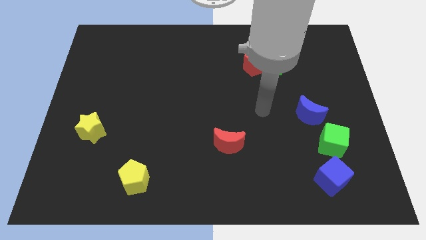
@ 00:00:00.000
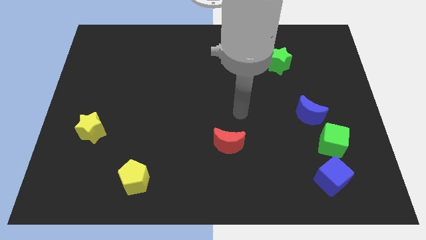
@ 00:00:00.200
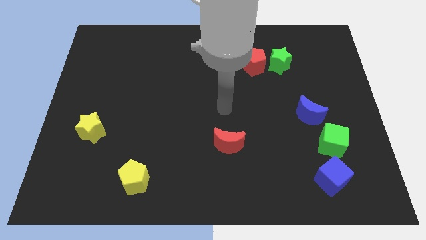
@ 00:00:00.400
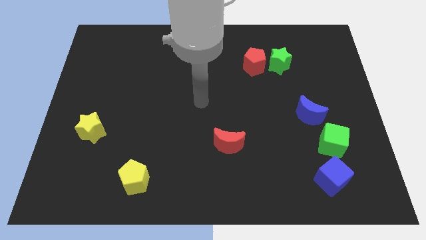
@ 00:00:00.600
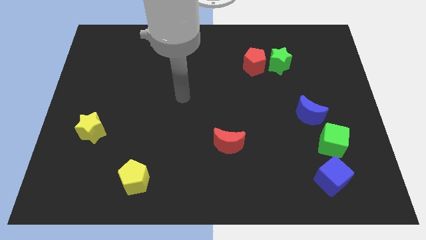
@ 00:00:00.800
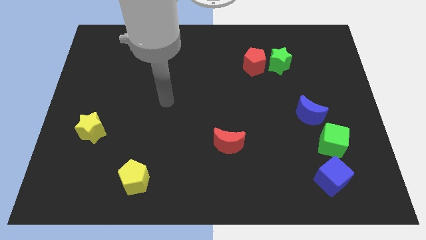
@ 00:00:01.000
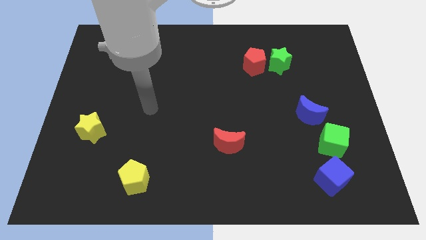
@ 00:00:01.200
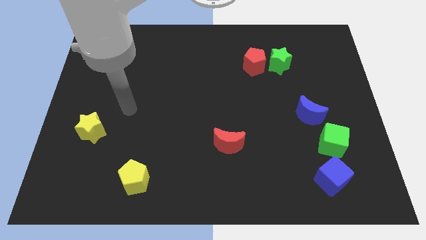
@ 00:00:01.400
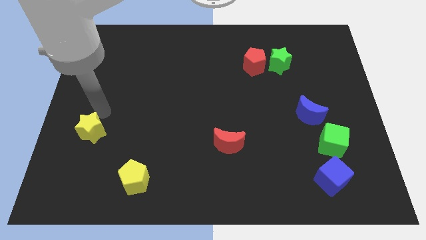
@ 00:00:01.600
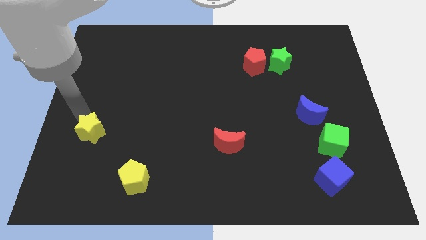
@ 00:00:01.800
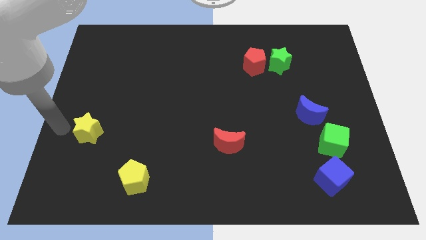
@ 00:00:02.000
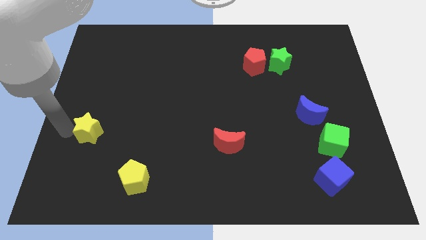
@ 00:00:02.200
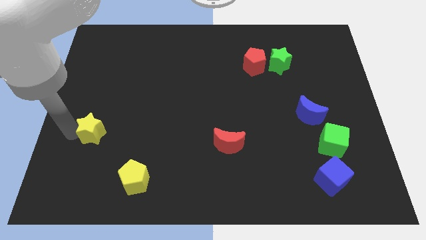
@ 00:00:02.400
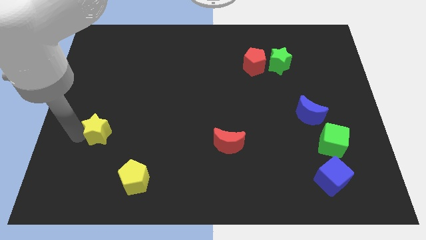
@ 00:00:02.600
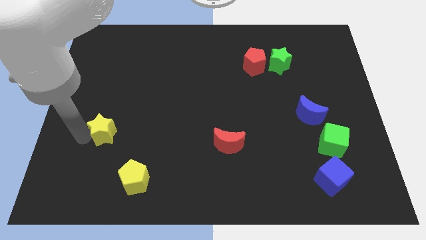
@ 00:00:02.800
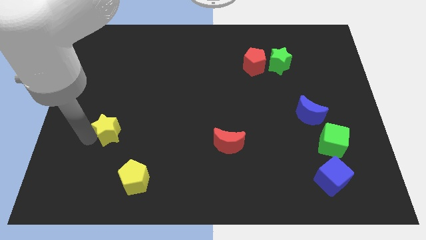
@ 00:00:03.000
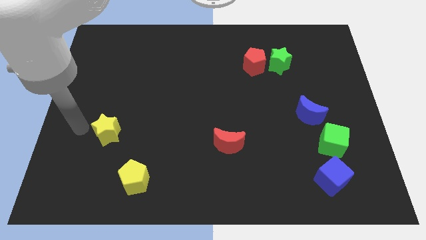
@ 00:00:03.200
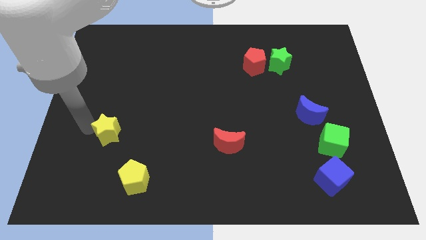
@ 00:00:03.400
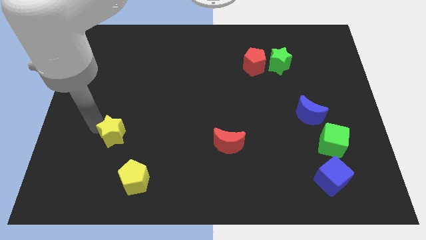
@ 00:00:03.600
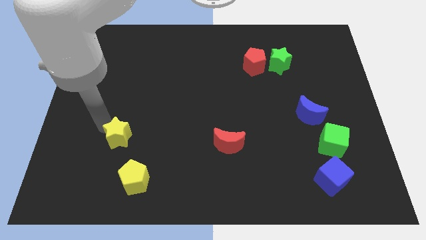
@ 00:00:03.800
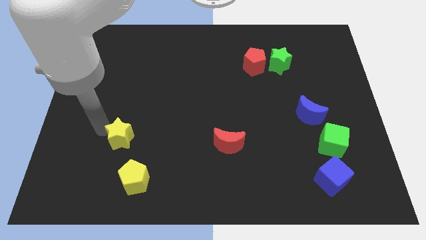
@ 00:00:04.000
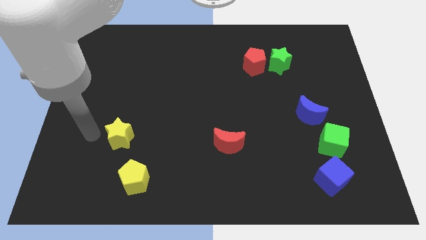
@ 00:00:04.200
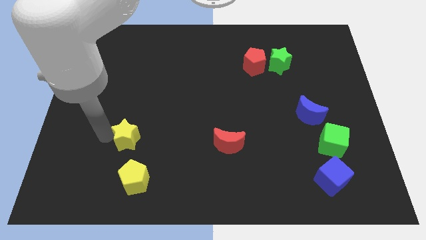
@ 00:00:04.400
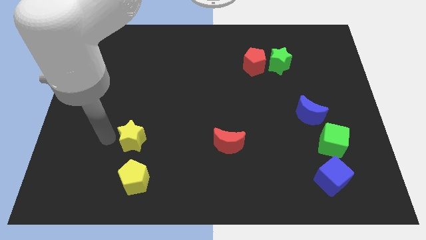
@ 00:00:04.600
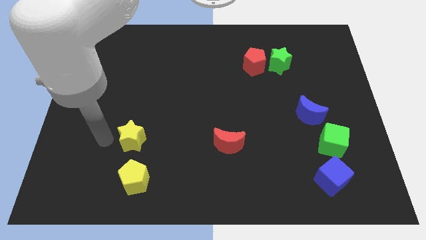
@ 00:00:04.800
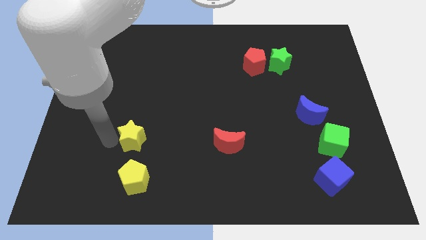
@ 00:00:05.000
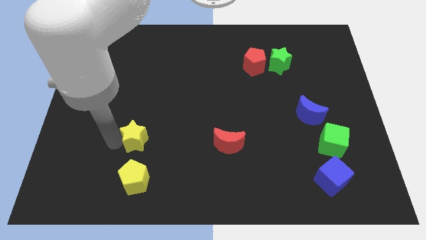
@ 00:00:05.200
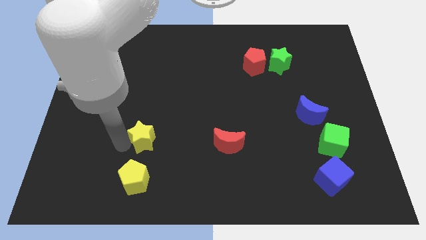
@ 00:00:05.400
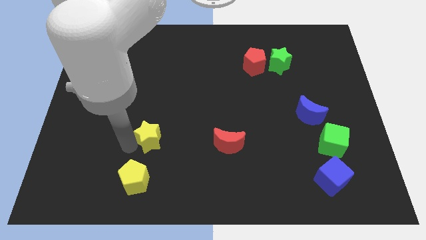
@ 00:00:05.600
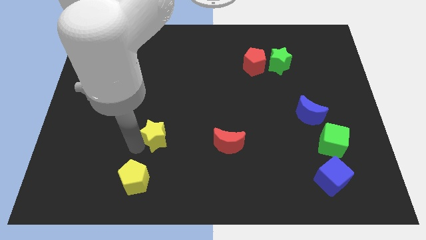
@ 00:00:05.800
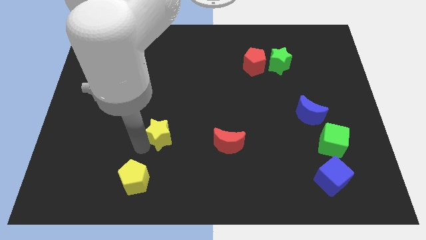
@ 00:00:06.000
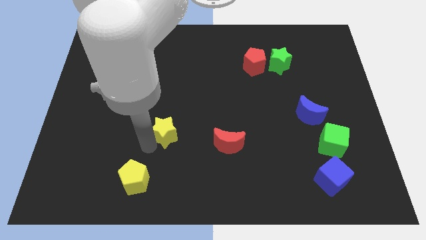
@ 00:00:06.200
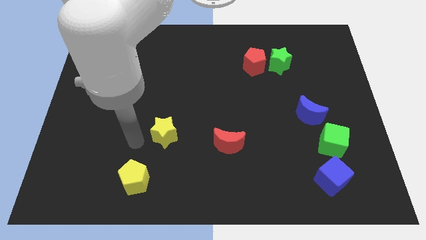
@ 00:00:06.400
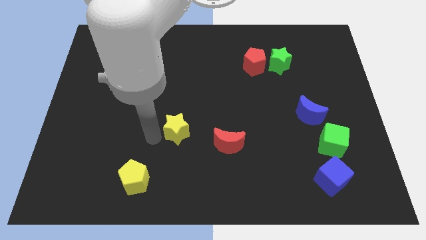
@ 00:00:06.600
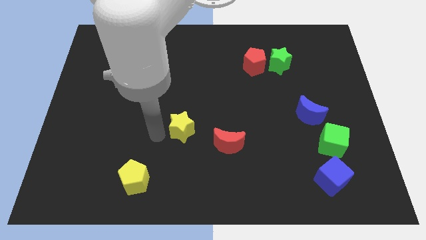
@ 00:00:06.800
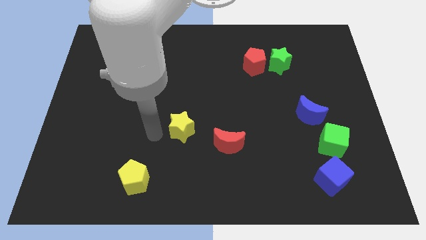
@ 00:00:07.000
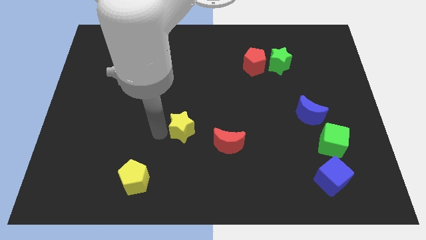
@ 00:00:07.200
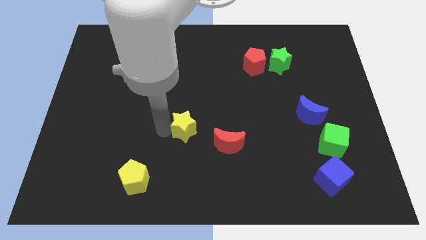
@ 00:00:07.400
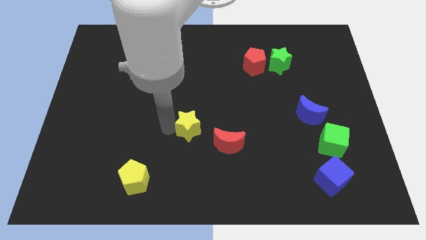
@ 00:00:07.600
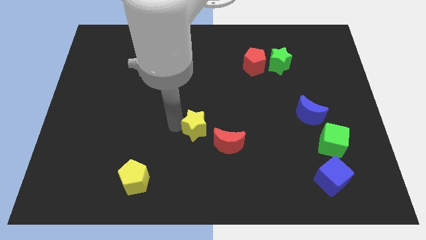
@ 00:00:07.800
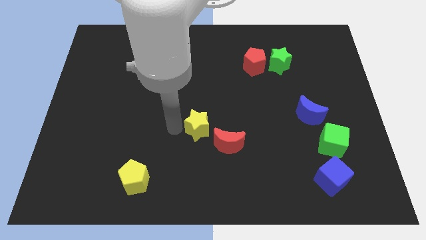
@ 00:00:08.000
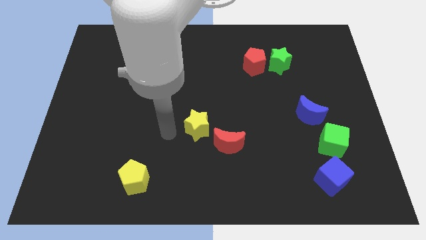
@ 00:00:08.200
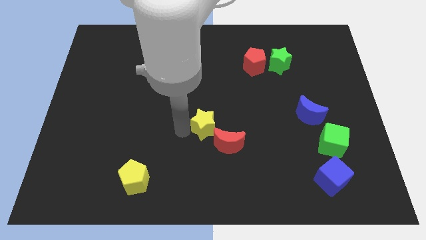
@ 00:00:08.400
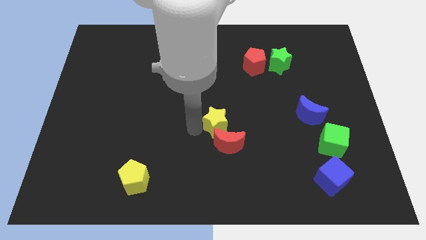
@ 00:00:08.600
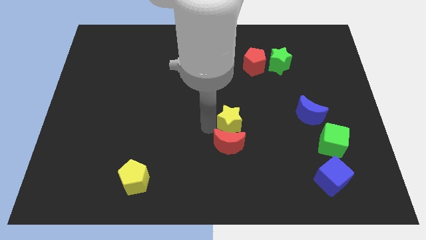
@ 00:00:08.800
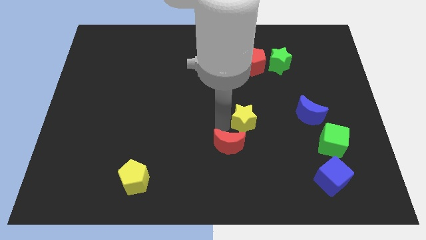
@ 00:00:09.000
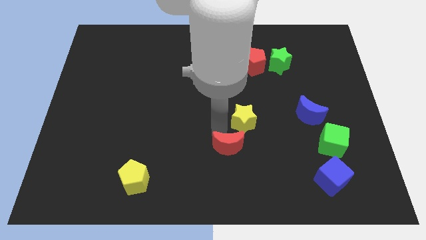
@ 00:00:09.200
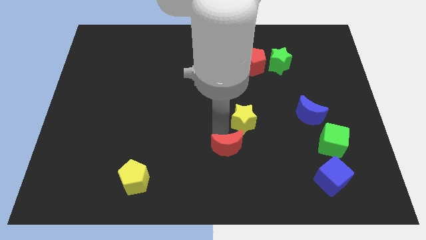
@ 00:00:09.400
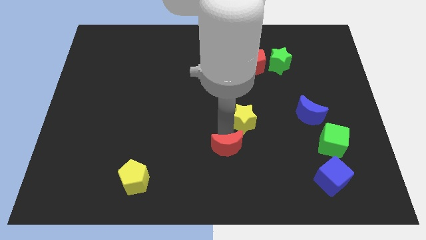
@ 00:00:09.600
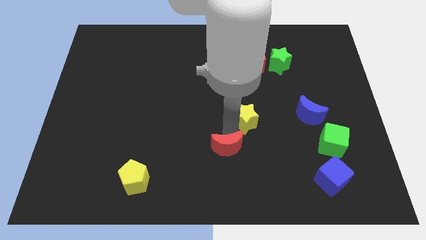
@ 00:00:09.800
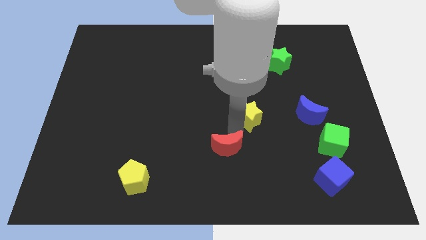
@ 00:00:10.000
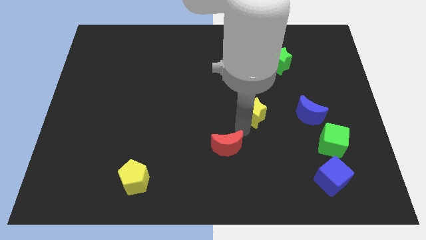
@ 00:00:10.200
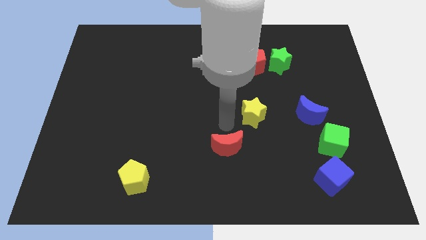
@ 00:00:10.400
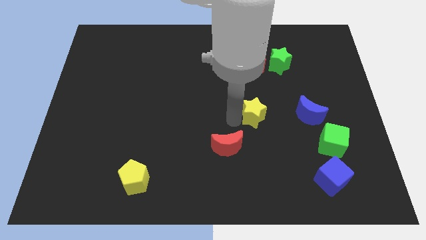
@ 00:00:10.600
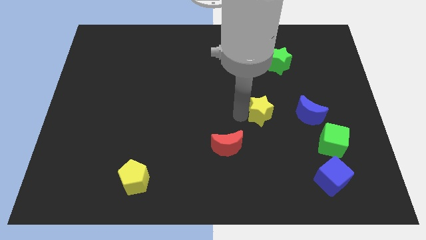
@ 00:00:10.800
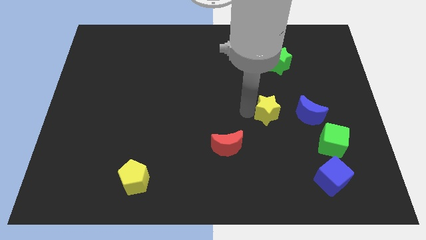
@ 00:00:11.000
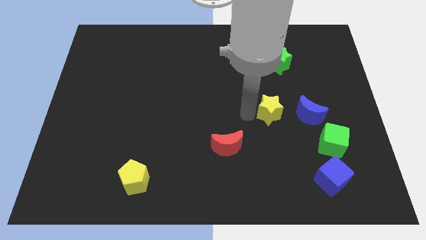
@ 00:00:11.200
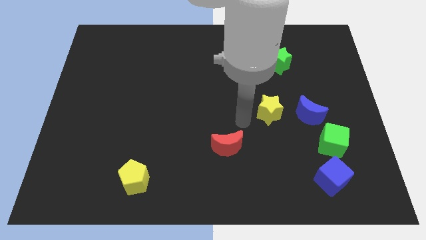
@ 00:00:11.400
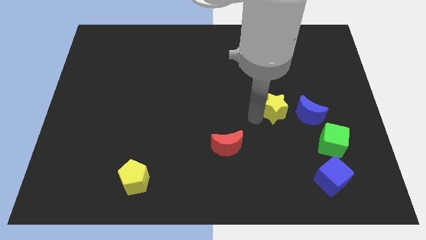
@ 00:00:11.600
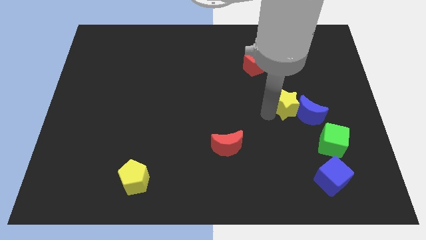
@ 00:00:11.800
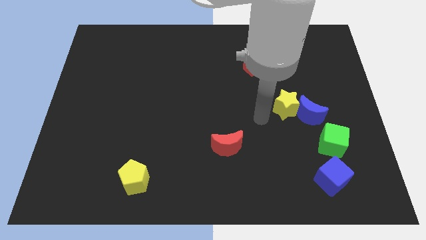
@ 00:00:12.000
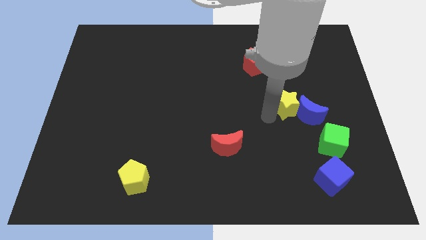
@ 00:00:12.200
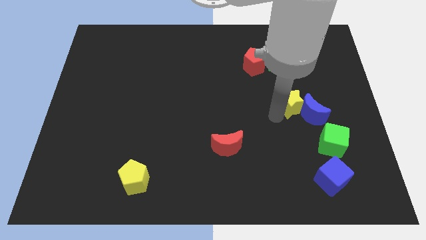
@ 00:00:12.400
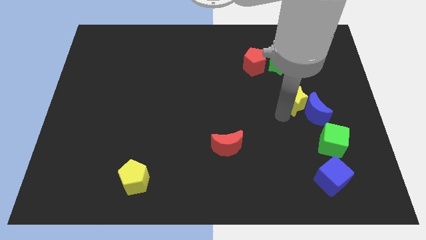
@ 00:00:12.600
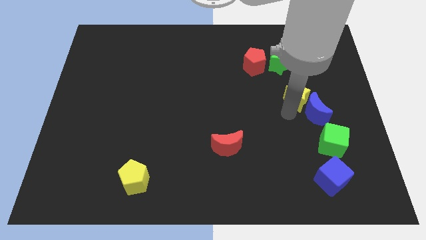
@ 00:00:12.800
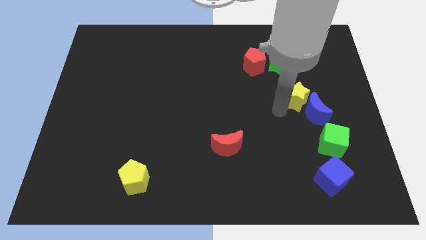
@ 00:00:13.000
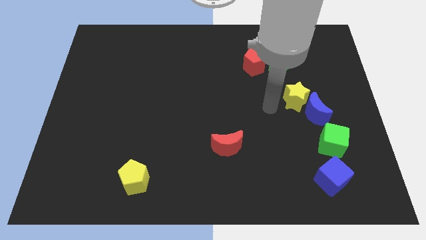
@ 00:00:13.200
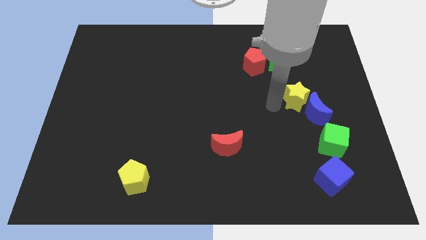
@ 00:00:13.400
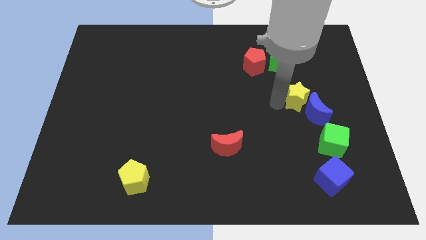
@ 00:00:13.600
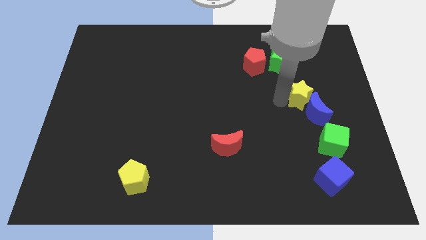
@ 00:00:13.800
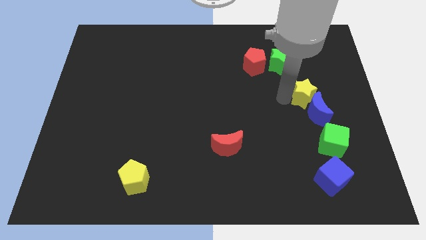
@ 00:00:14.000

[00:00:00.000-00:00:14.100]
push the yellow star to the top of the green cube

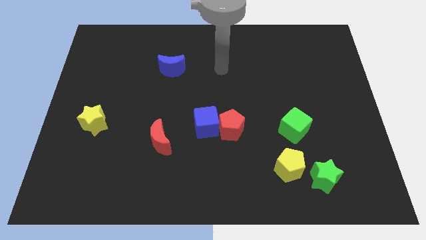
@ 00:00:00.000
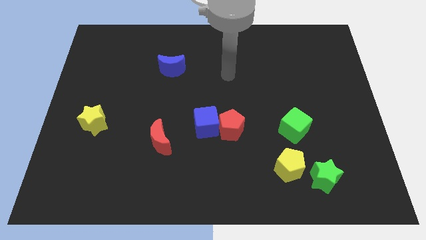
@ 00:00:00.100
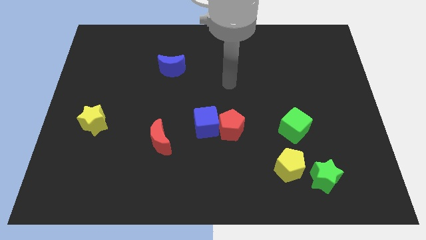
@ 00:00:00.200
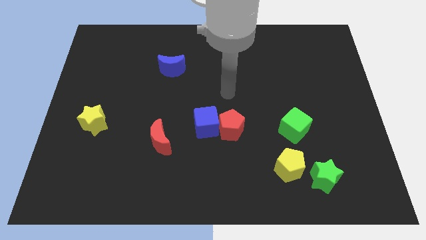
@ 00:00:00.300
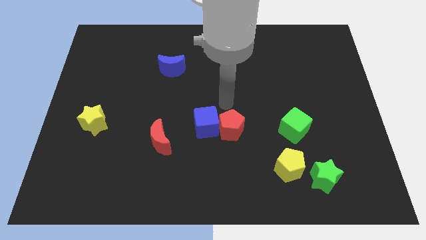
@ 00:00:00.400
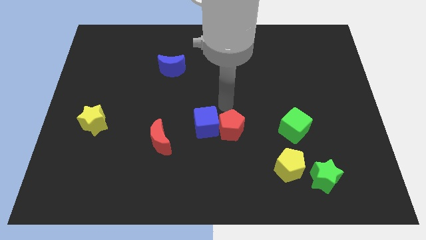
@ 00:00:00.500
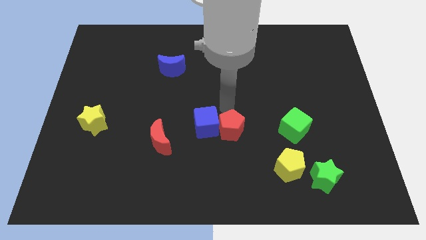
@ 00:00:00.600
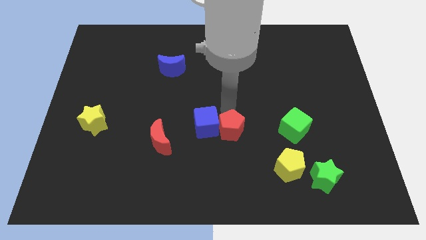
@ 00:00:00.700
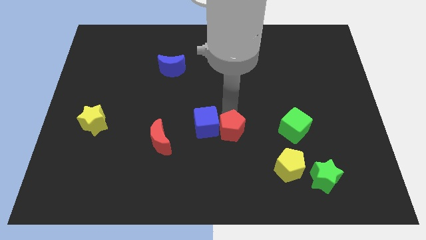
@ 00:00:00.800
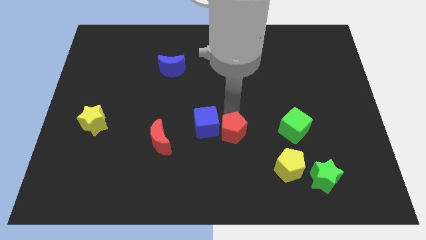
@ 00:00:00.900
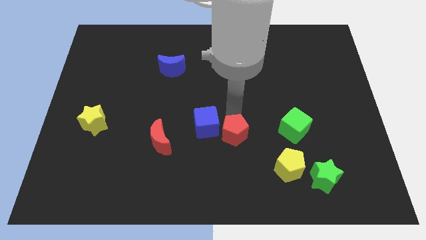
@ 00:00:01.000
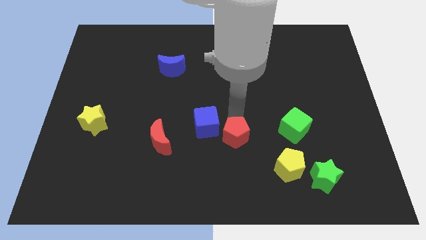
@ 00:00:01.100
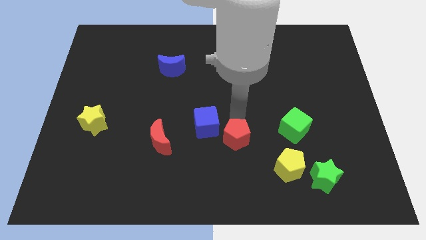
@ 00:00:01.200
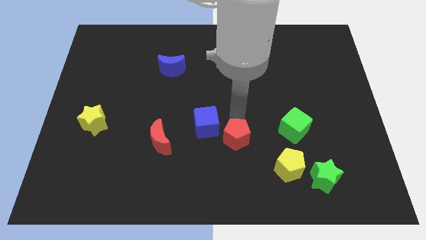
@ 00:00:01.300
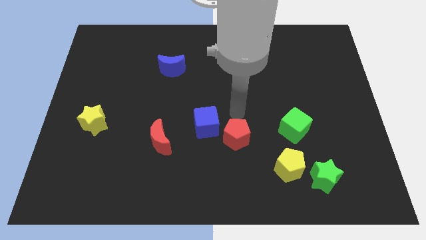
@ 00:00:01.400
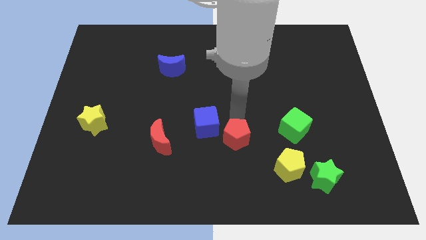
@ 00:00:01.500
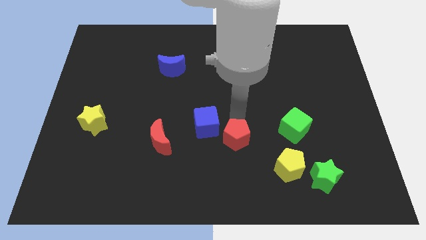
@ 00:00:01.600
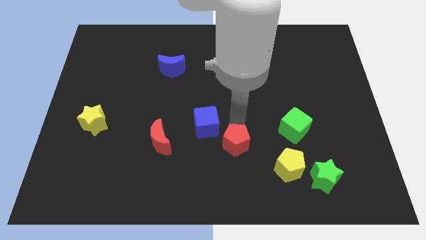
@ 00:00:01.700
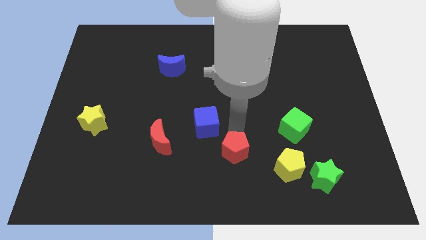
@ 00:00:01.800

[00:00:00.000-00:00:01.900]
slide the red pentagon to the left of the yellow pentagon
